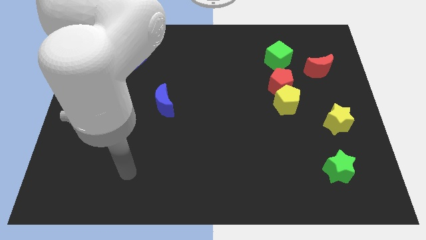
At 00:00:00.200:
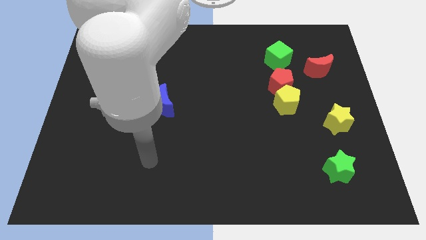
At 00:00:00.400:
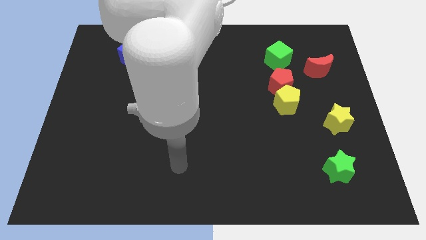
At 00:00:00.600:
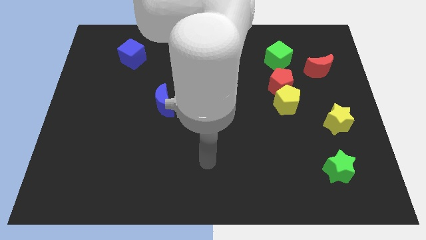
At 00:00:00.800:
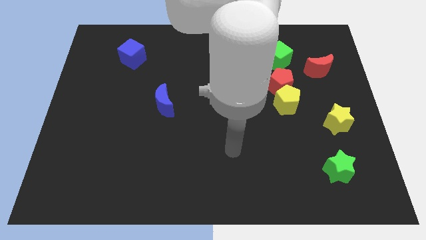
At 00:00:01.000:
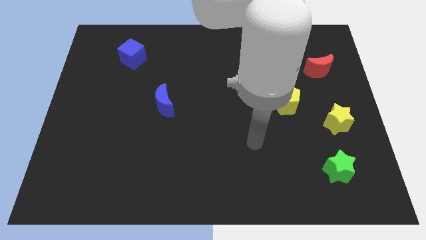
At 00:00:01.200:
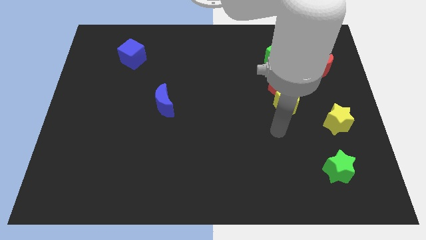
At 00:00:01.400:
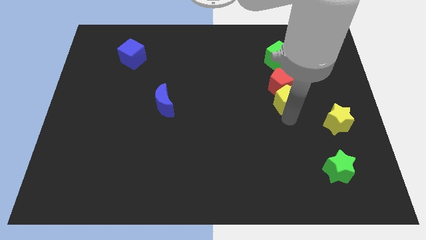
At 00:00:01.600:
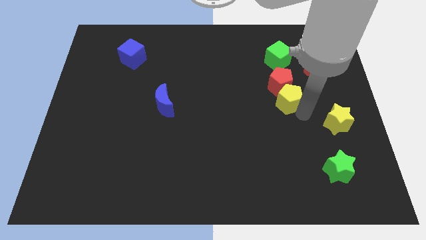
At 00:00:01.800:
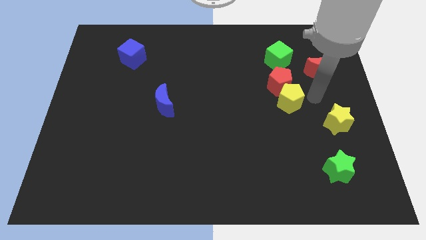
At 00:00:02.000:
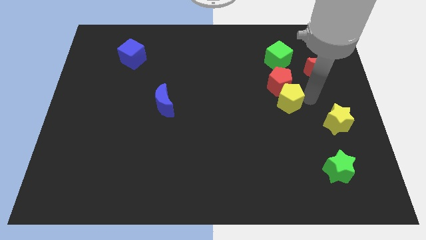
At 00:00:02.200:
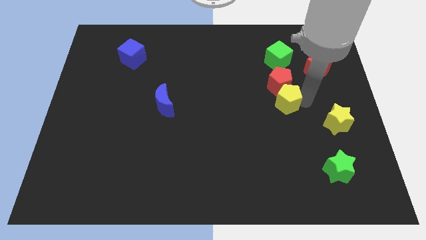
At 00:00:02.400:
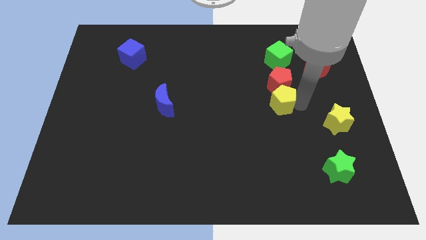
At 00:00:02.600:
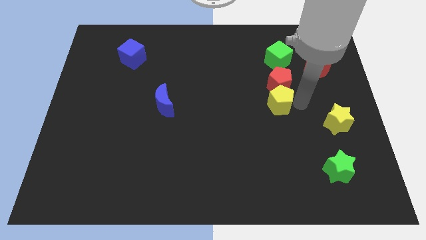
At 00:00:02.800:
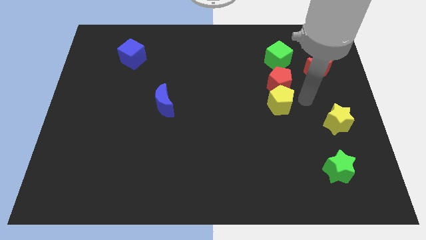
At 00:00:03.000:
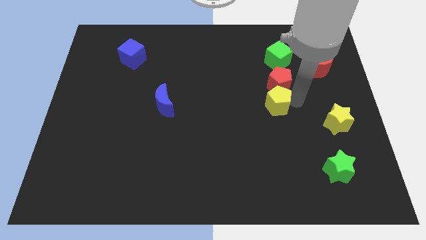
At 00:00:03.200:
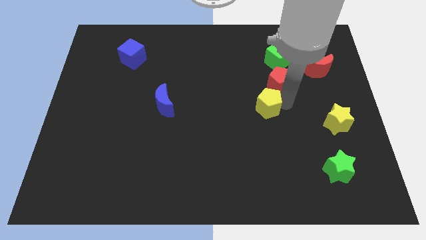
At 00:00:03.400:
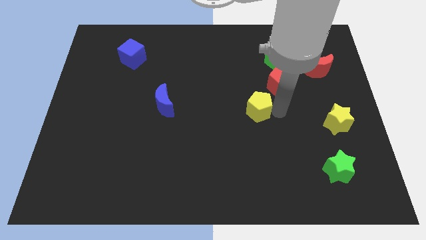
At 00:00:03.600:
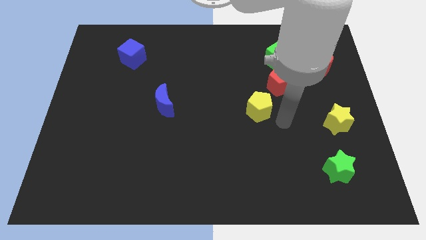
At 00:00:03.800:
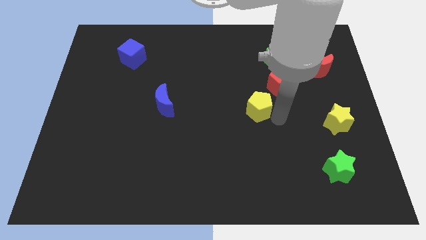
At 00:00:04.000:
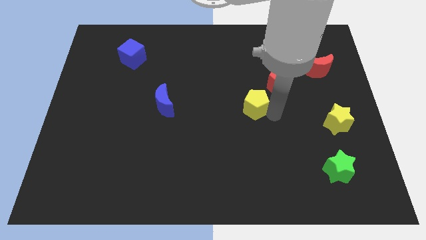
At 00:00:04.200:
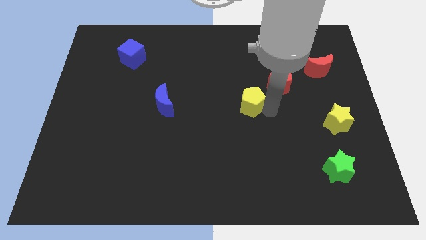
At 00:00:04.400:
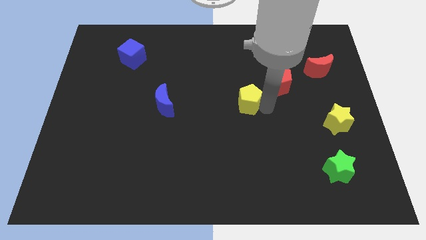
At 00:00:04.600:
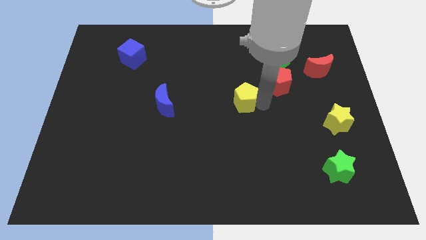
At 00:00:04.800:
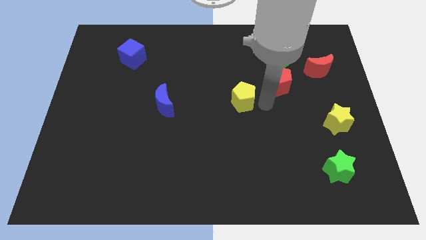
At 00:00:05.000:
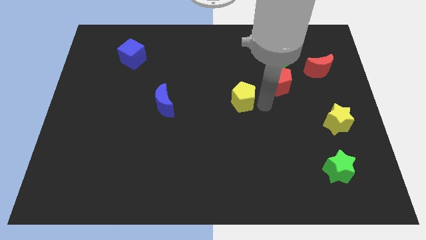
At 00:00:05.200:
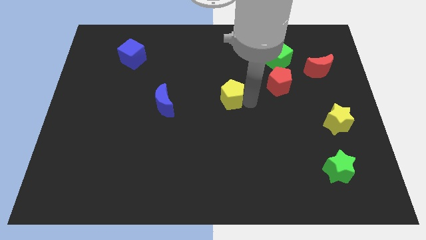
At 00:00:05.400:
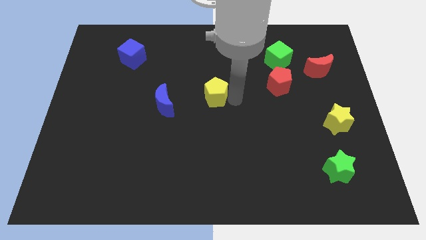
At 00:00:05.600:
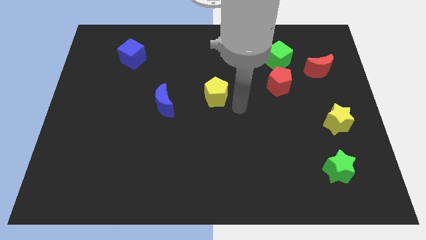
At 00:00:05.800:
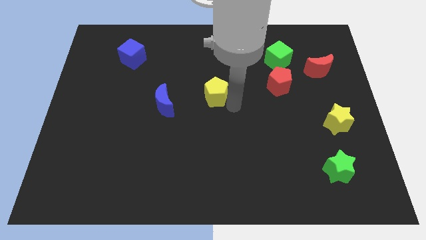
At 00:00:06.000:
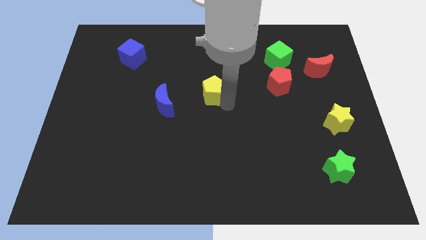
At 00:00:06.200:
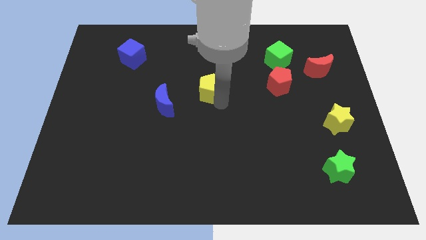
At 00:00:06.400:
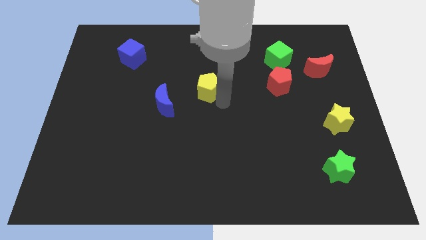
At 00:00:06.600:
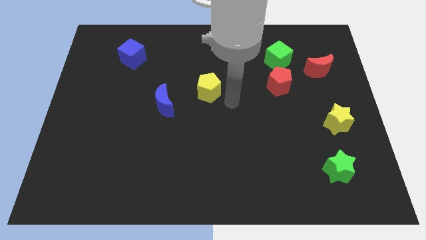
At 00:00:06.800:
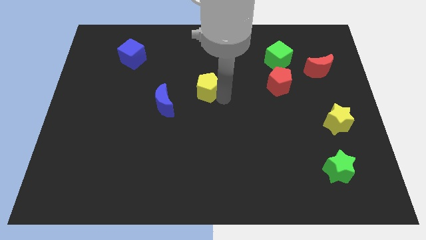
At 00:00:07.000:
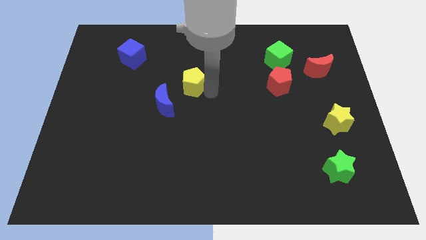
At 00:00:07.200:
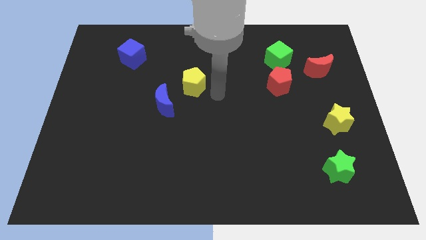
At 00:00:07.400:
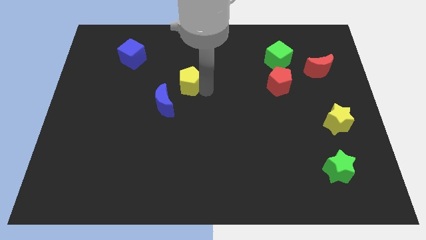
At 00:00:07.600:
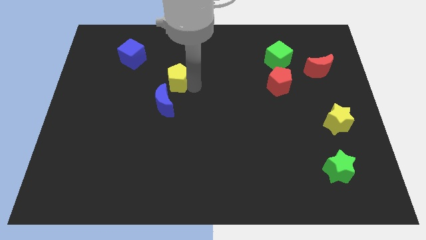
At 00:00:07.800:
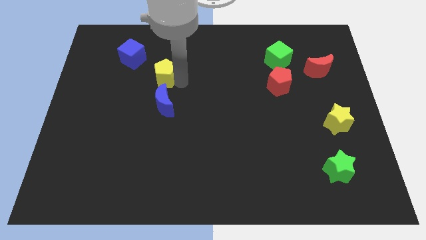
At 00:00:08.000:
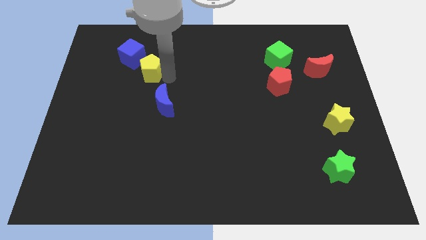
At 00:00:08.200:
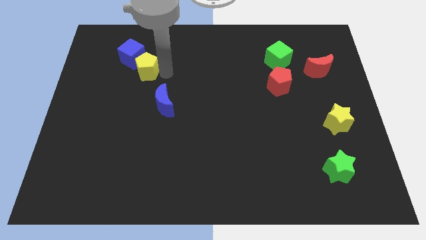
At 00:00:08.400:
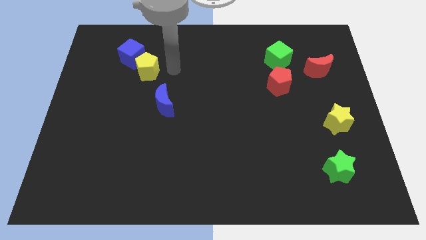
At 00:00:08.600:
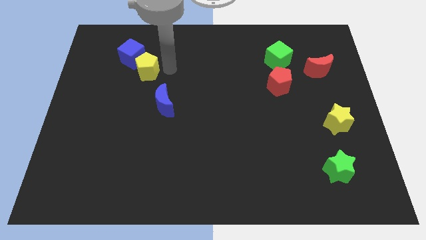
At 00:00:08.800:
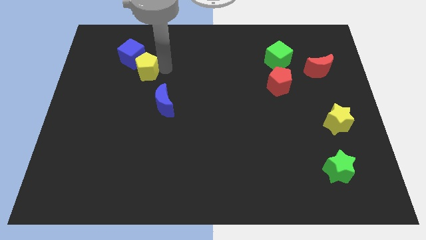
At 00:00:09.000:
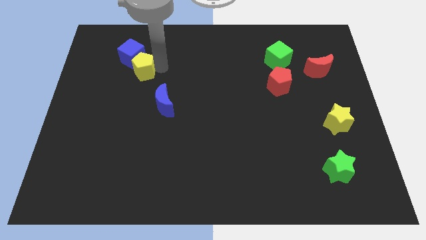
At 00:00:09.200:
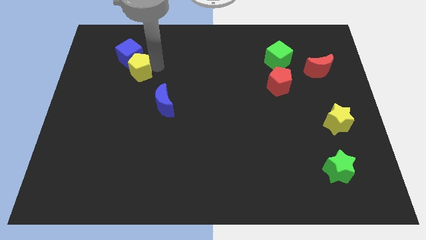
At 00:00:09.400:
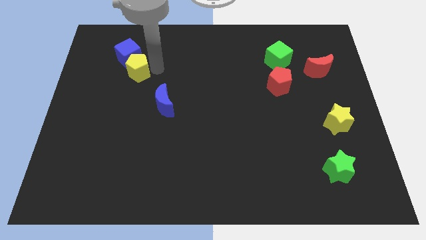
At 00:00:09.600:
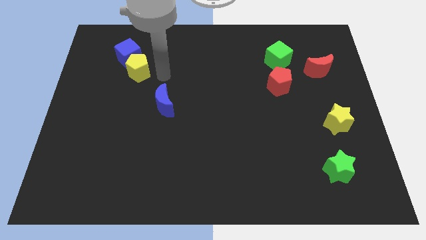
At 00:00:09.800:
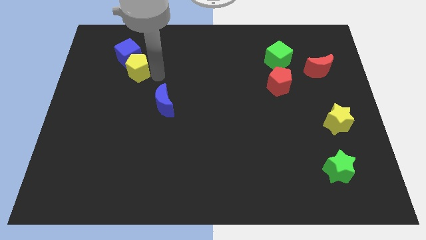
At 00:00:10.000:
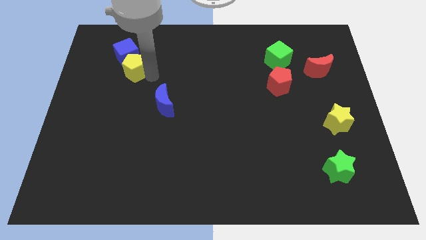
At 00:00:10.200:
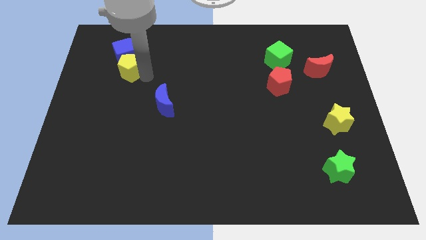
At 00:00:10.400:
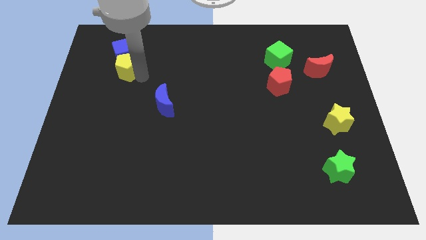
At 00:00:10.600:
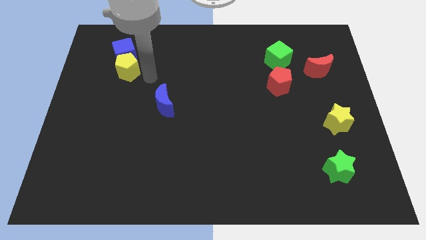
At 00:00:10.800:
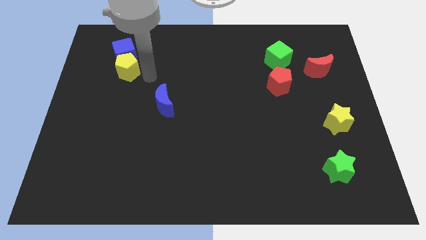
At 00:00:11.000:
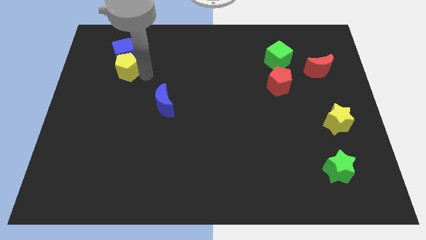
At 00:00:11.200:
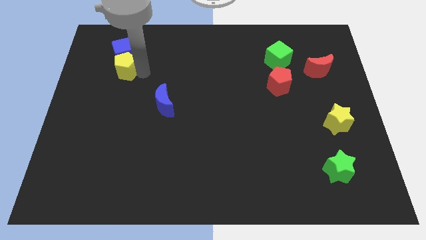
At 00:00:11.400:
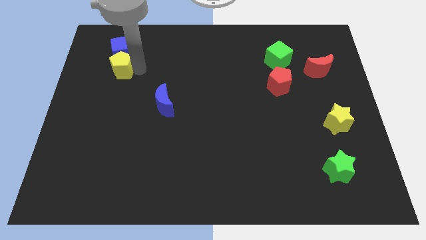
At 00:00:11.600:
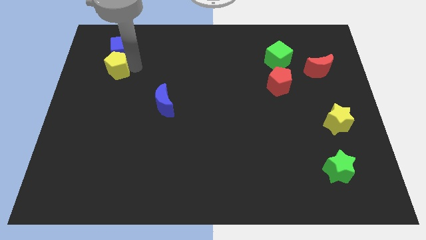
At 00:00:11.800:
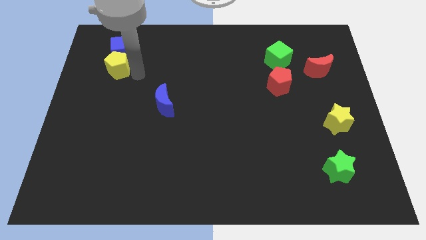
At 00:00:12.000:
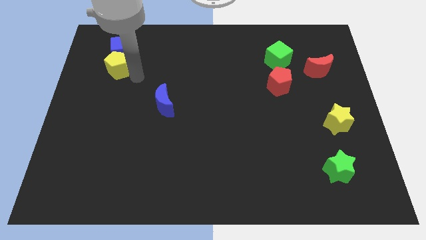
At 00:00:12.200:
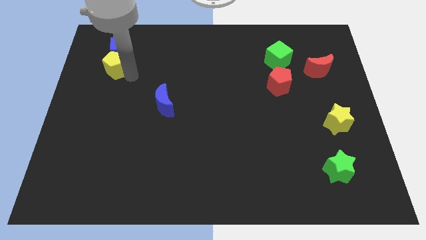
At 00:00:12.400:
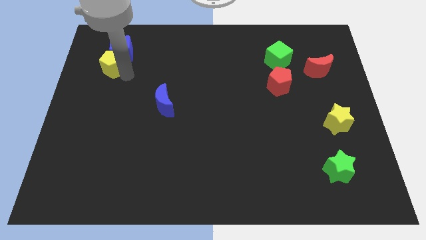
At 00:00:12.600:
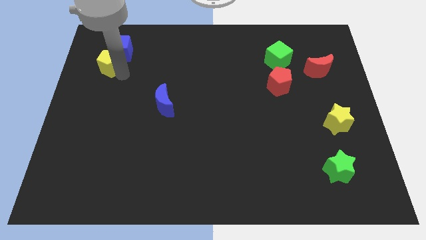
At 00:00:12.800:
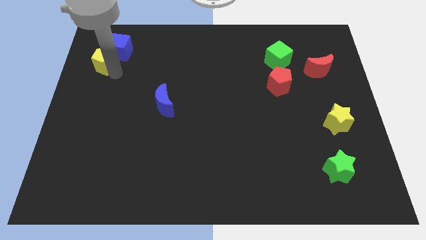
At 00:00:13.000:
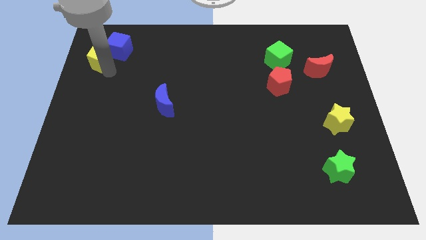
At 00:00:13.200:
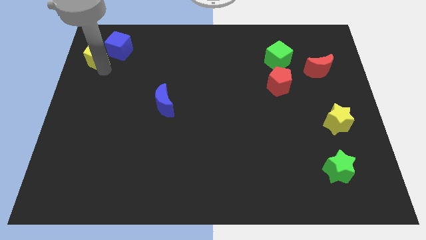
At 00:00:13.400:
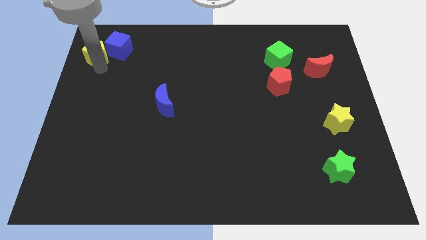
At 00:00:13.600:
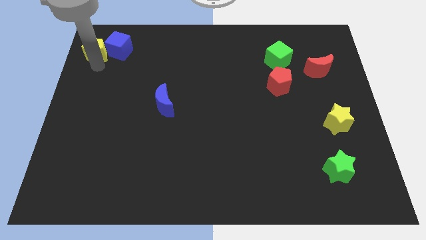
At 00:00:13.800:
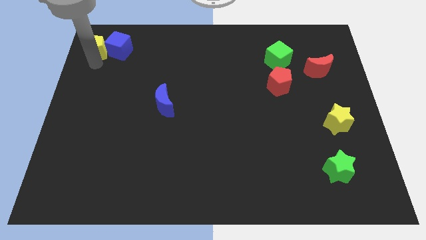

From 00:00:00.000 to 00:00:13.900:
move the yellow pentagon to the top left of the board
